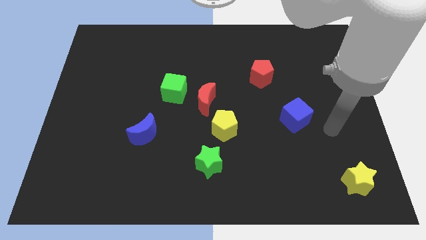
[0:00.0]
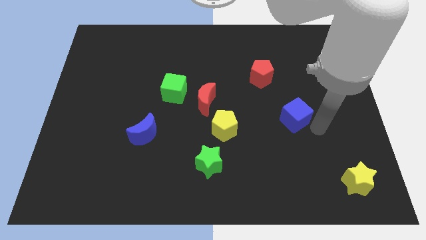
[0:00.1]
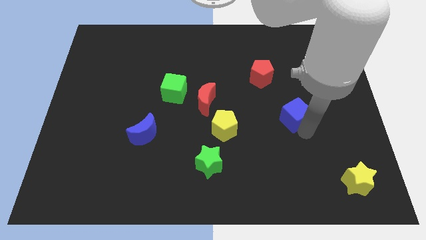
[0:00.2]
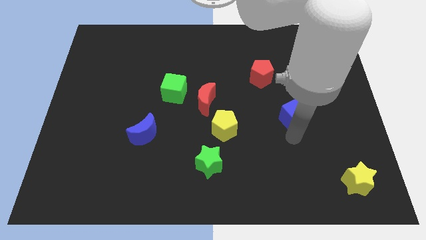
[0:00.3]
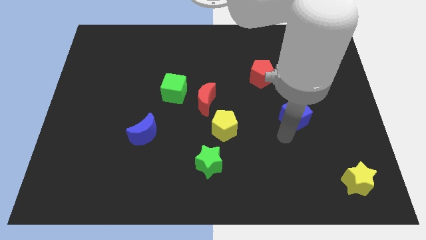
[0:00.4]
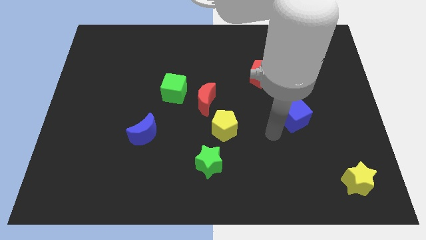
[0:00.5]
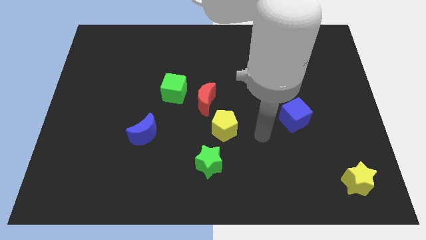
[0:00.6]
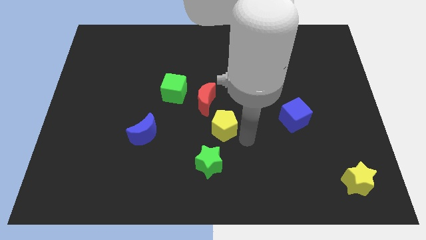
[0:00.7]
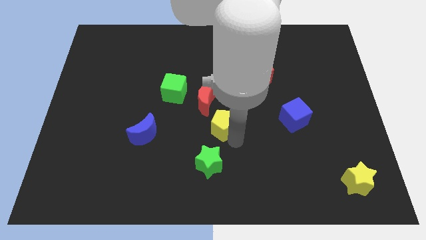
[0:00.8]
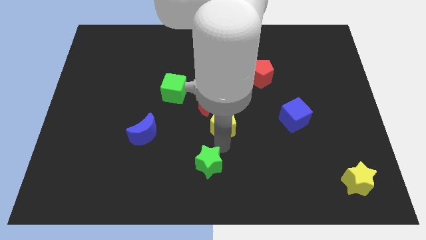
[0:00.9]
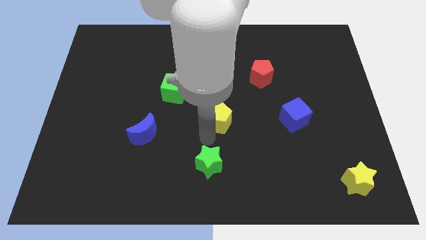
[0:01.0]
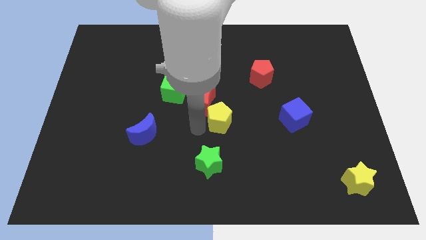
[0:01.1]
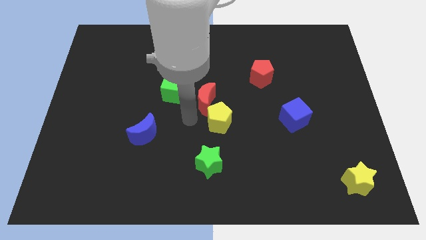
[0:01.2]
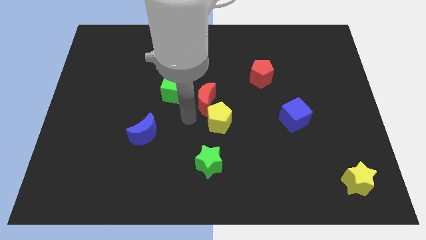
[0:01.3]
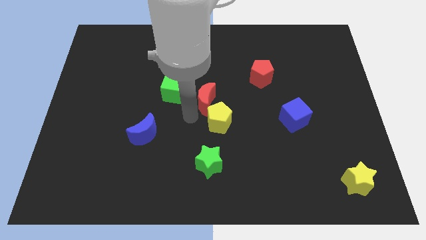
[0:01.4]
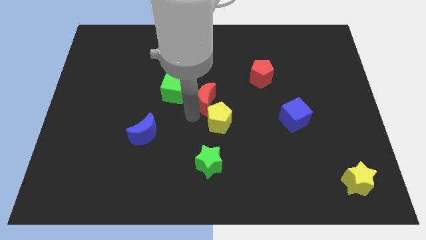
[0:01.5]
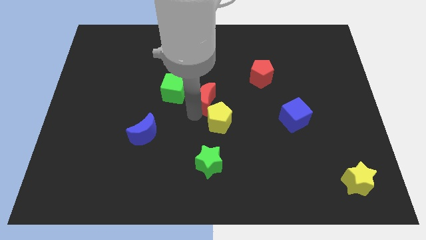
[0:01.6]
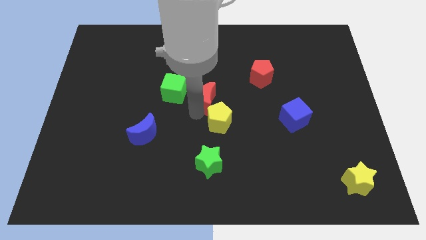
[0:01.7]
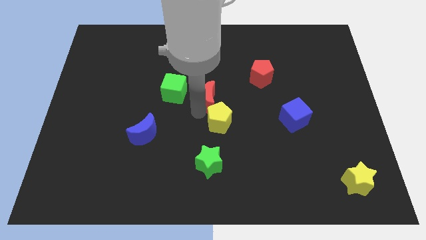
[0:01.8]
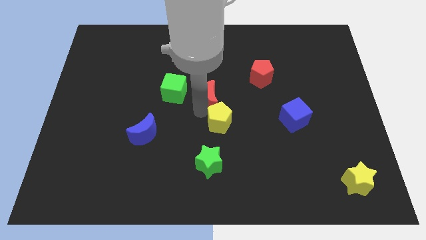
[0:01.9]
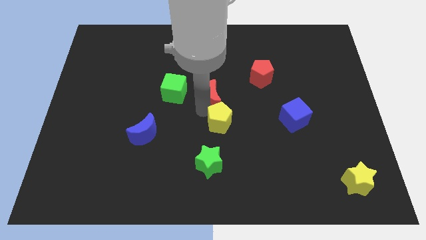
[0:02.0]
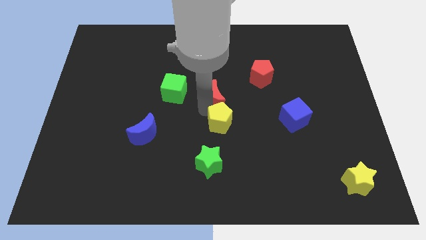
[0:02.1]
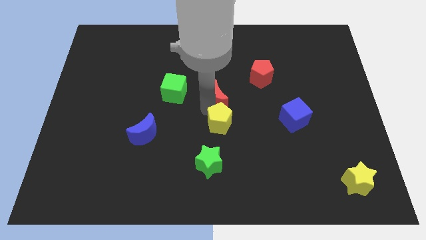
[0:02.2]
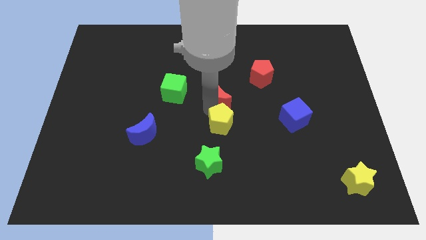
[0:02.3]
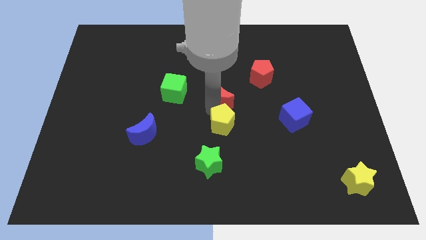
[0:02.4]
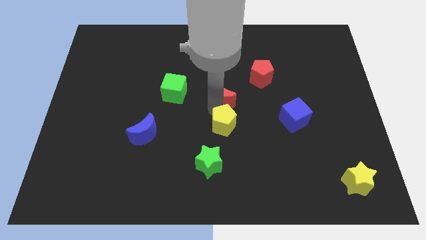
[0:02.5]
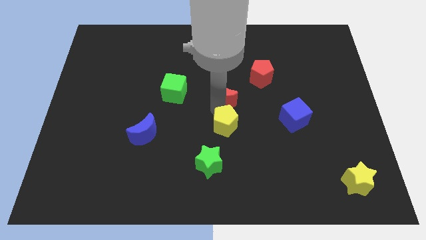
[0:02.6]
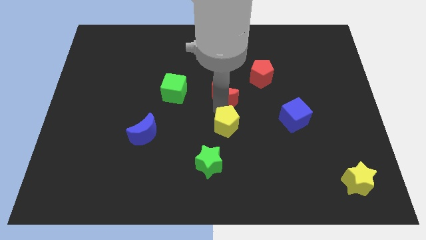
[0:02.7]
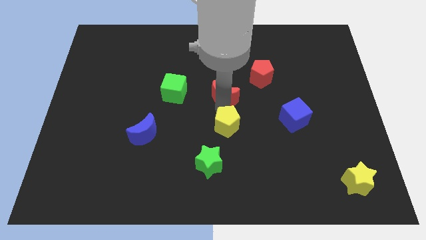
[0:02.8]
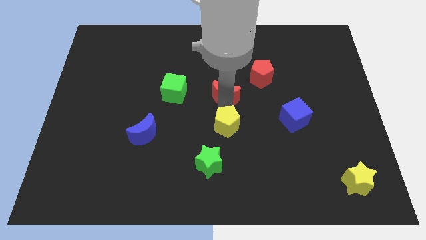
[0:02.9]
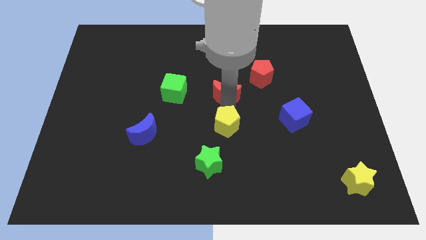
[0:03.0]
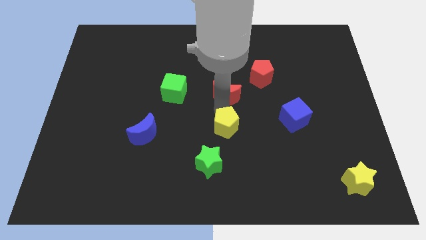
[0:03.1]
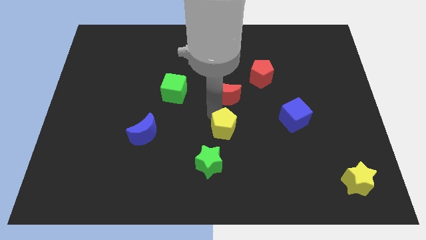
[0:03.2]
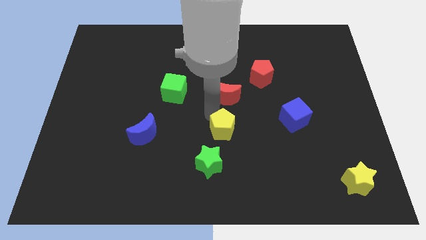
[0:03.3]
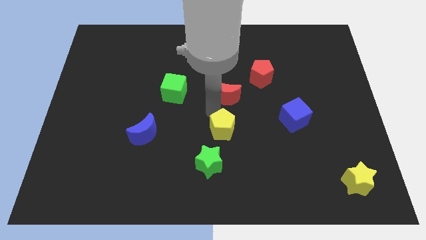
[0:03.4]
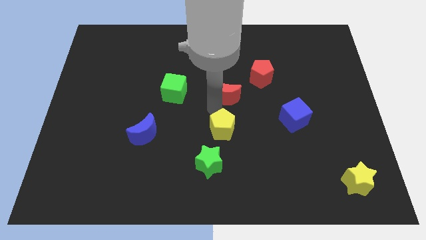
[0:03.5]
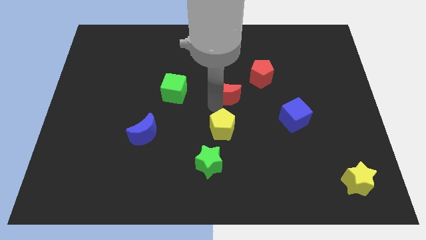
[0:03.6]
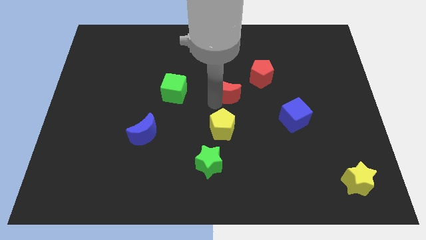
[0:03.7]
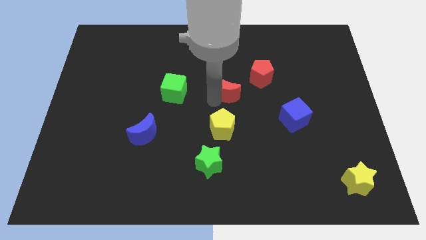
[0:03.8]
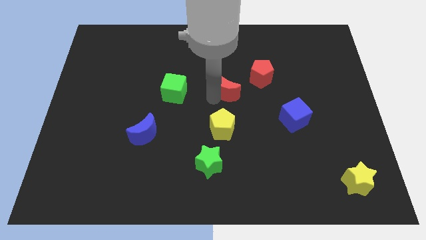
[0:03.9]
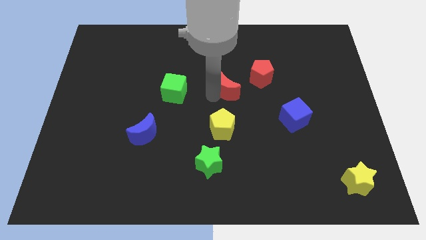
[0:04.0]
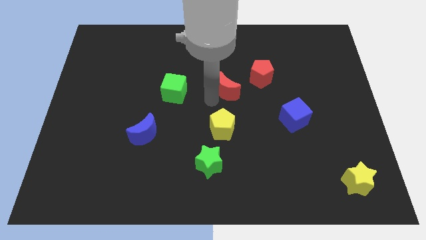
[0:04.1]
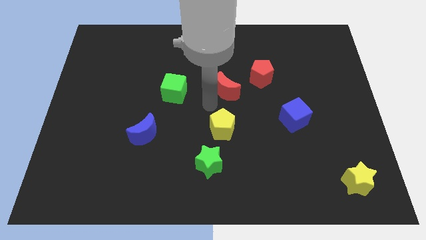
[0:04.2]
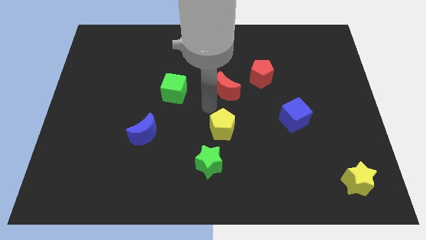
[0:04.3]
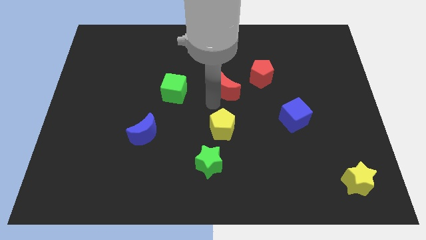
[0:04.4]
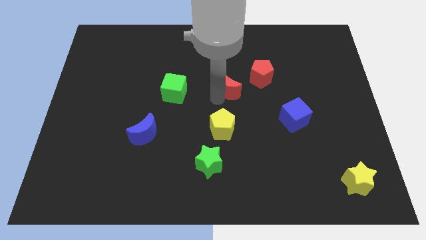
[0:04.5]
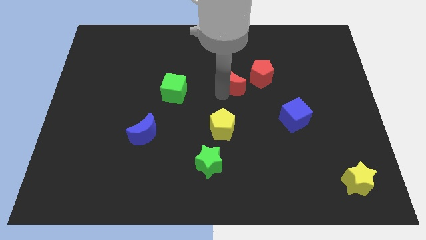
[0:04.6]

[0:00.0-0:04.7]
slightly slide the red moon upwards and then to the right

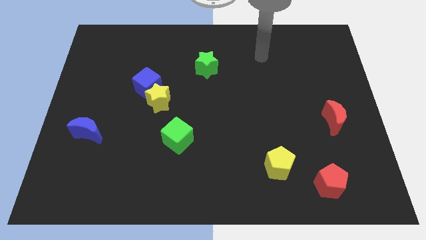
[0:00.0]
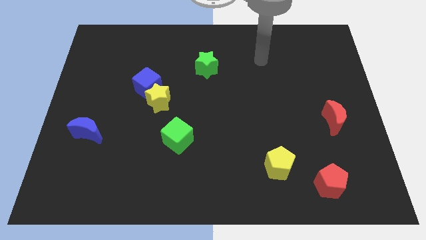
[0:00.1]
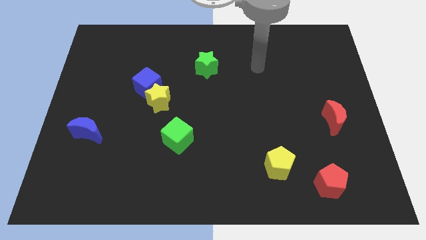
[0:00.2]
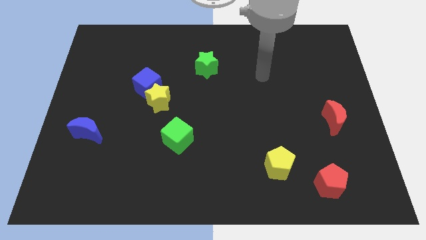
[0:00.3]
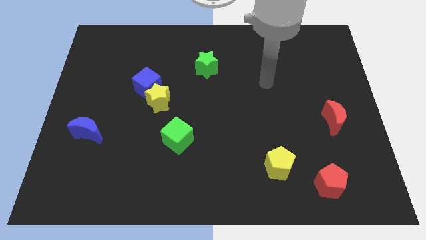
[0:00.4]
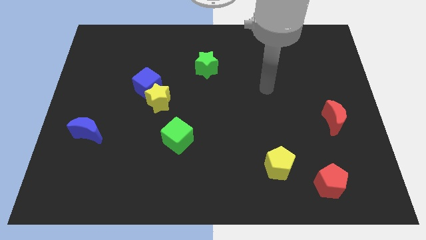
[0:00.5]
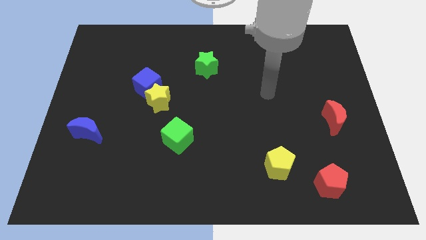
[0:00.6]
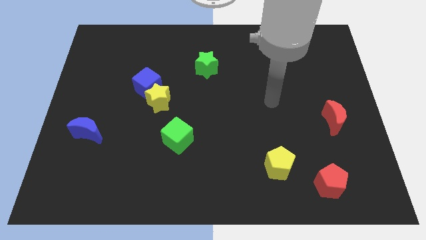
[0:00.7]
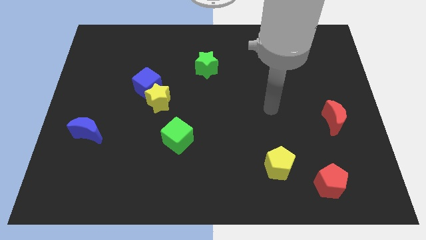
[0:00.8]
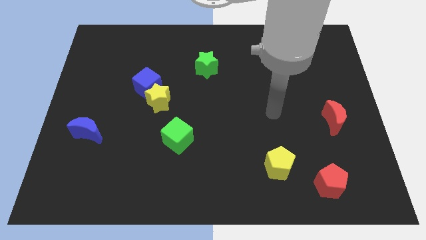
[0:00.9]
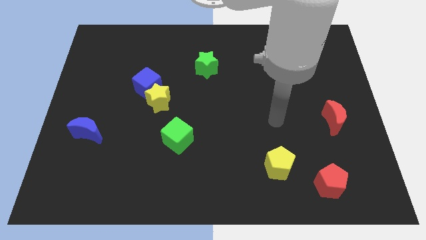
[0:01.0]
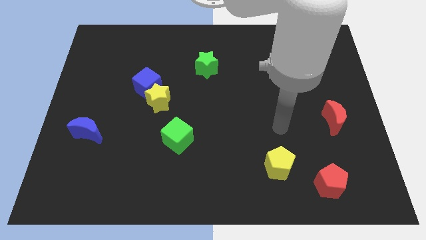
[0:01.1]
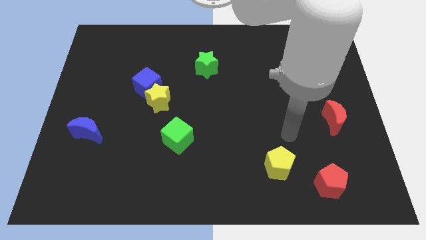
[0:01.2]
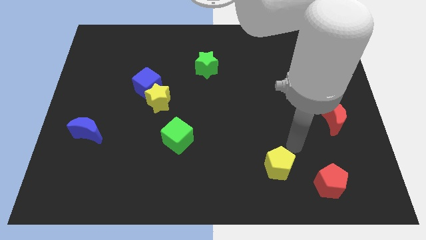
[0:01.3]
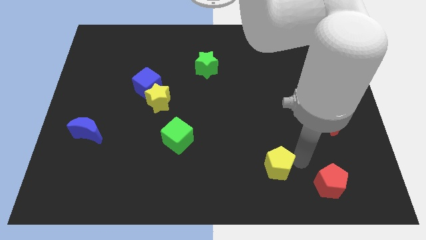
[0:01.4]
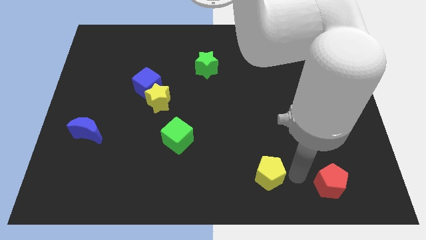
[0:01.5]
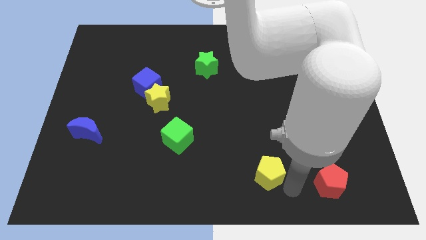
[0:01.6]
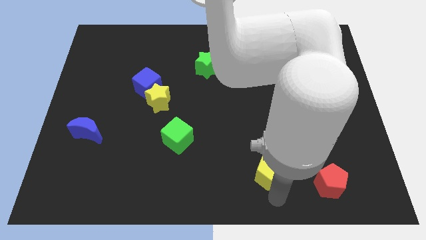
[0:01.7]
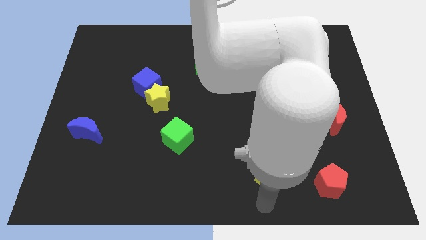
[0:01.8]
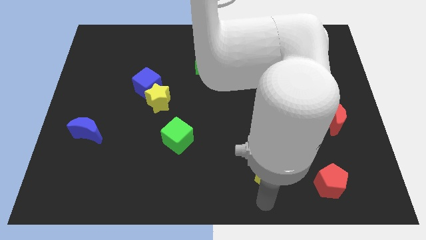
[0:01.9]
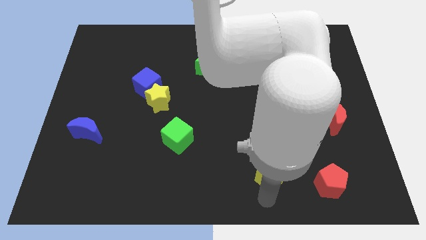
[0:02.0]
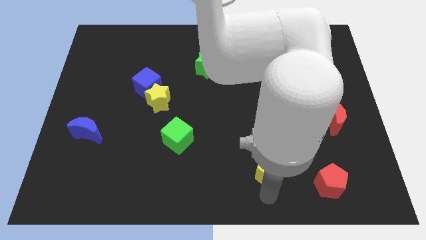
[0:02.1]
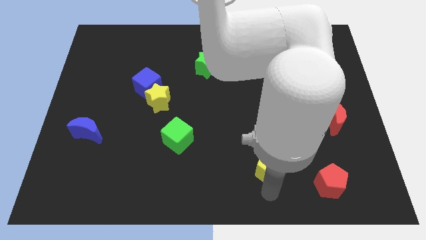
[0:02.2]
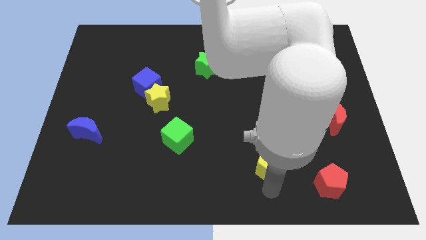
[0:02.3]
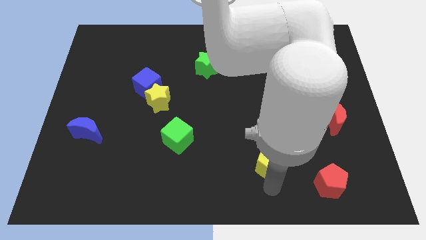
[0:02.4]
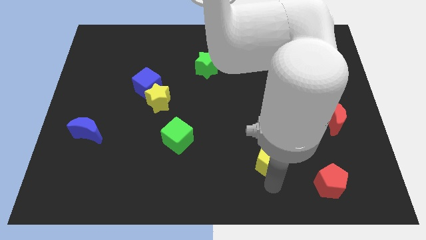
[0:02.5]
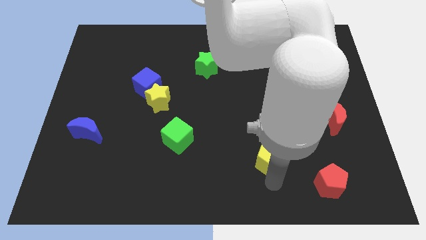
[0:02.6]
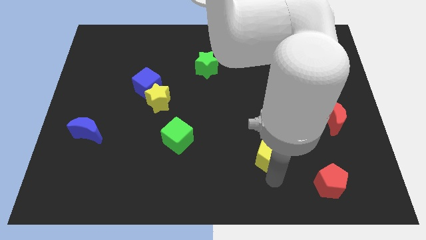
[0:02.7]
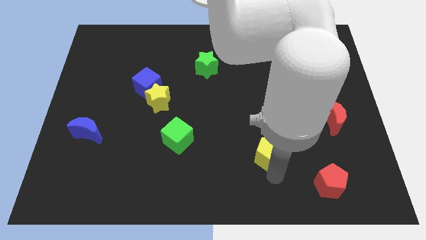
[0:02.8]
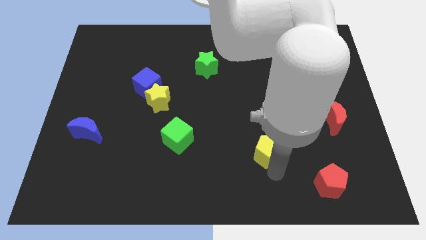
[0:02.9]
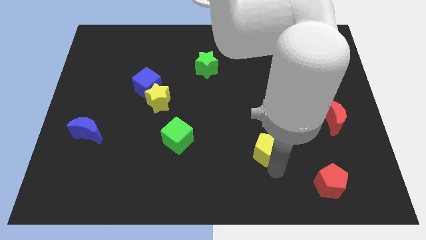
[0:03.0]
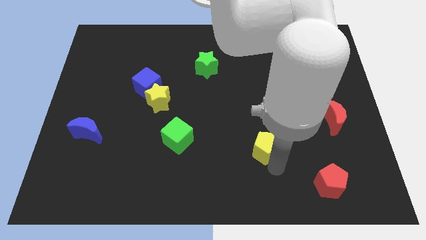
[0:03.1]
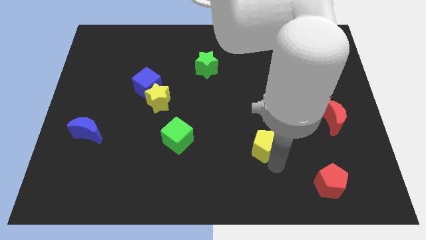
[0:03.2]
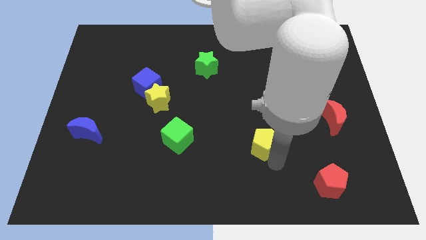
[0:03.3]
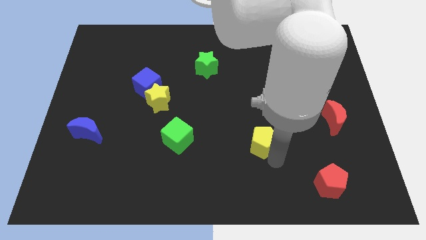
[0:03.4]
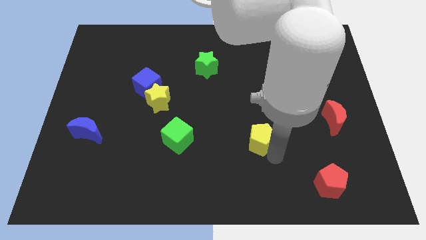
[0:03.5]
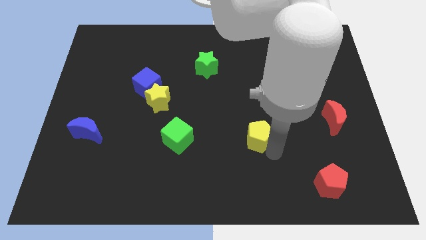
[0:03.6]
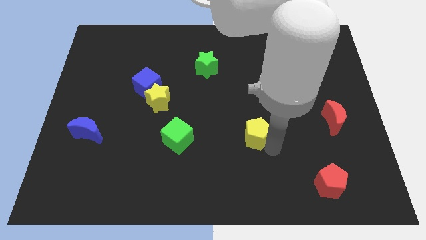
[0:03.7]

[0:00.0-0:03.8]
push the yellow pentagon up a little
